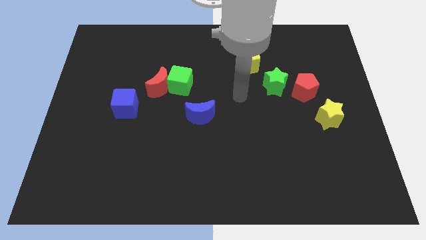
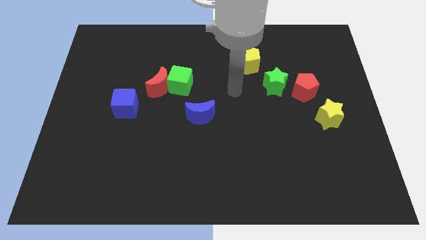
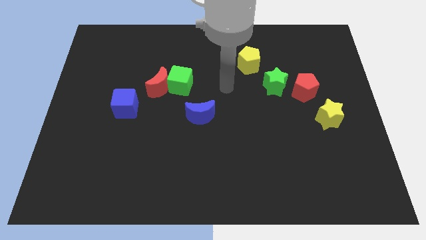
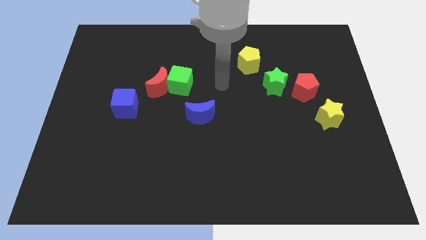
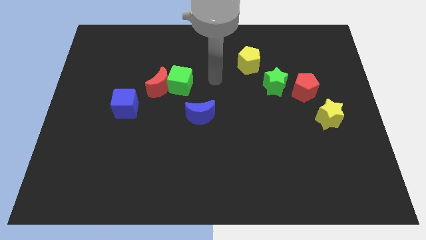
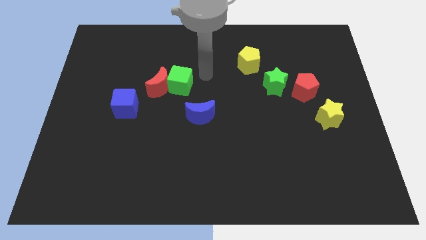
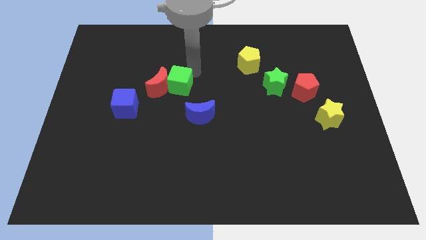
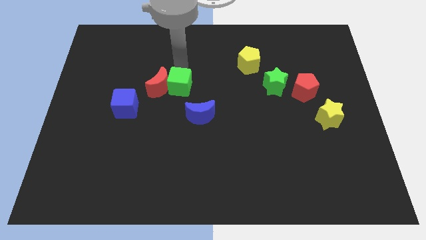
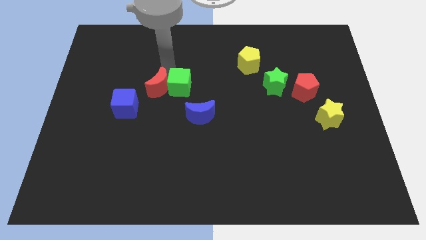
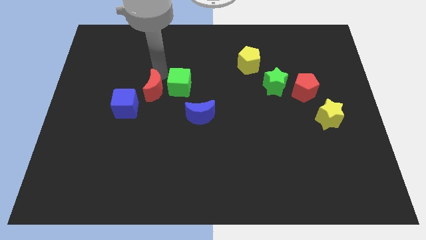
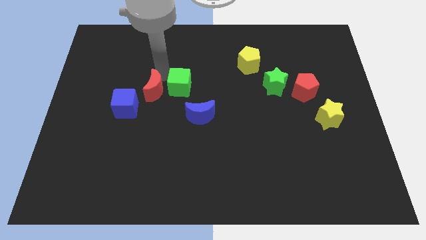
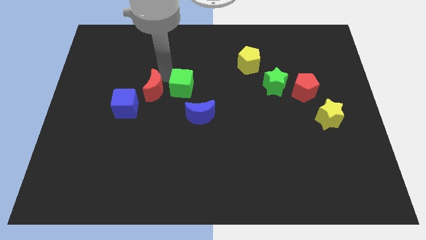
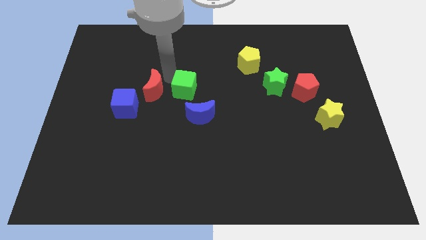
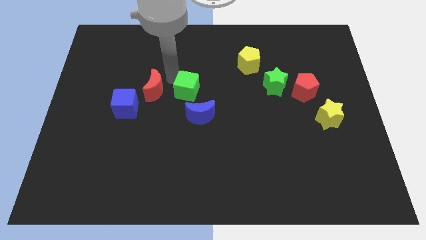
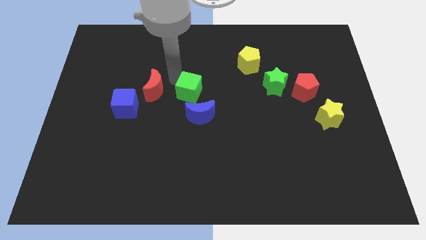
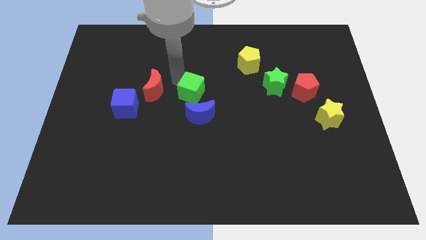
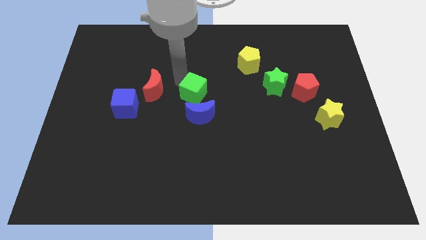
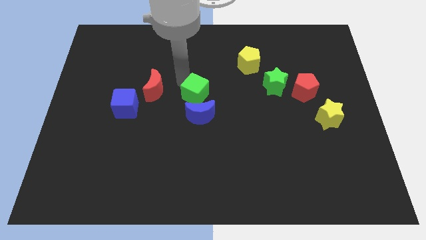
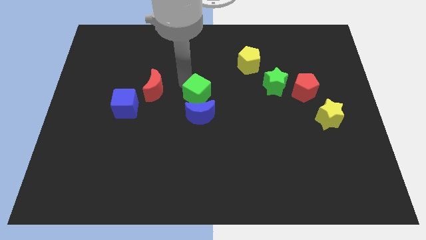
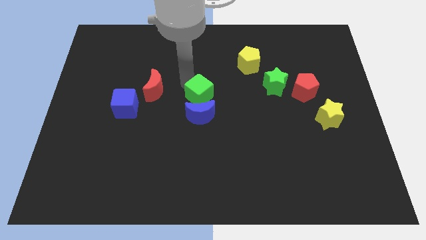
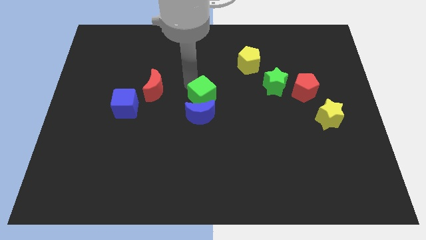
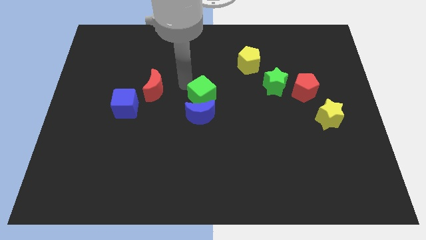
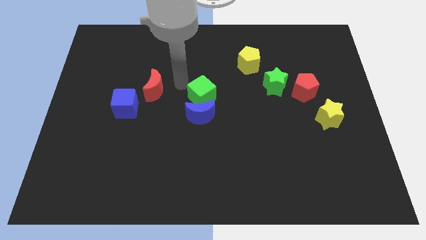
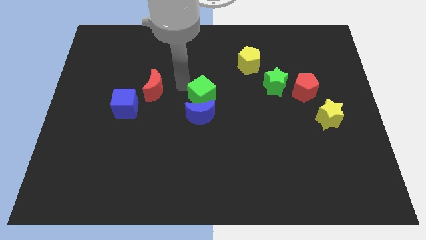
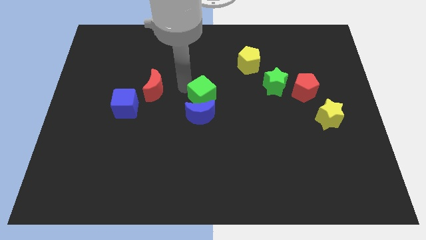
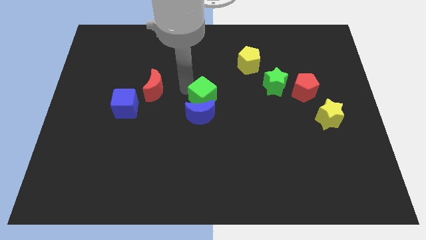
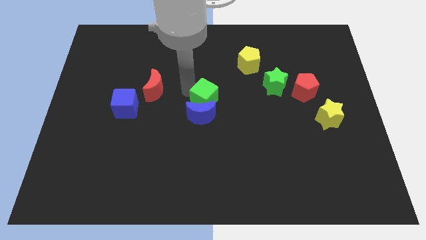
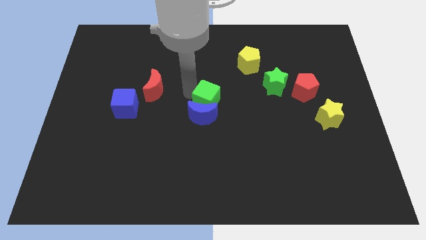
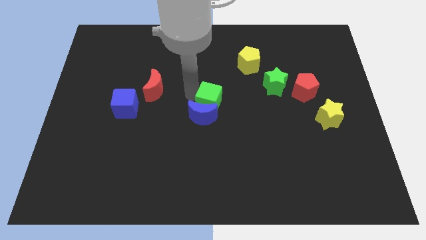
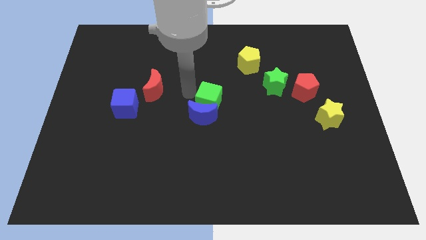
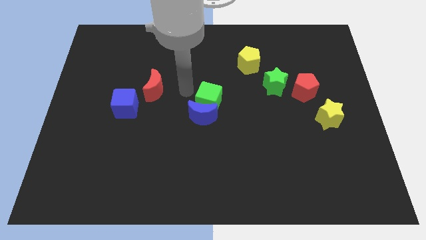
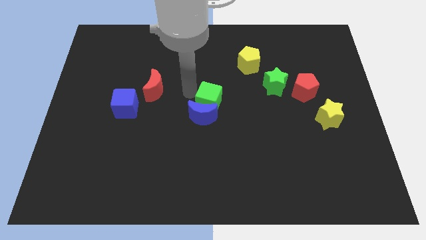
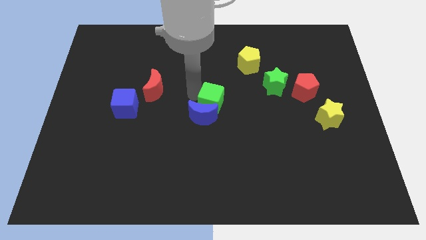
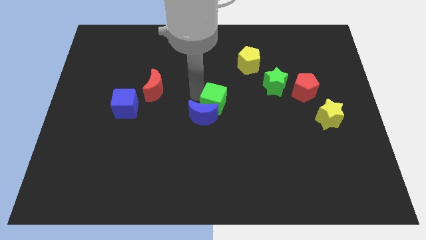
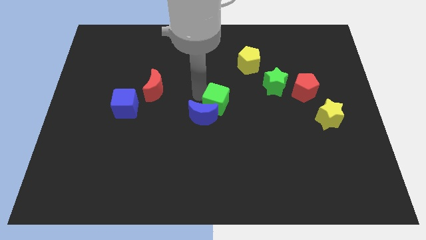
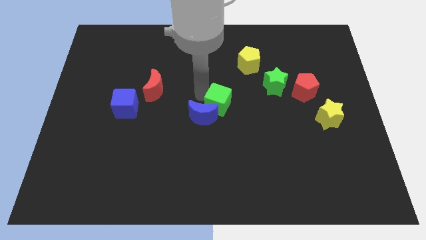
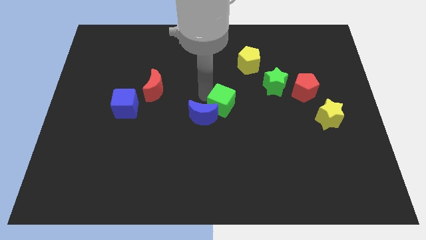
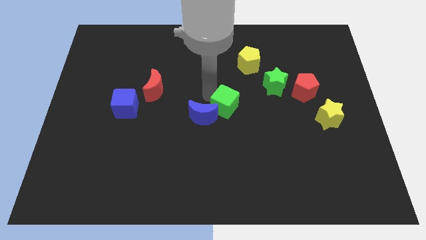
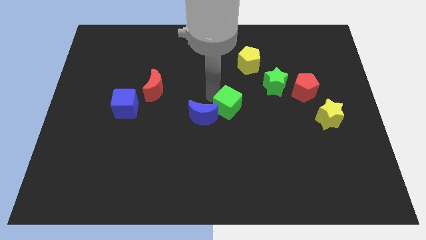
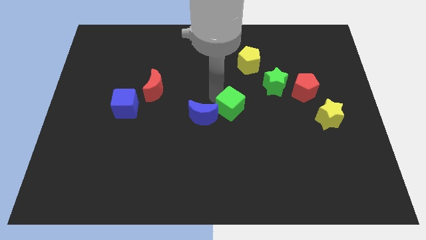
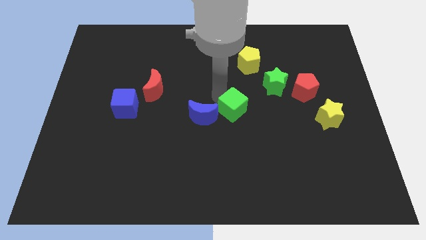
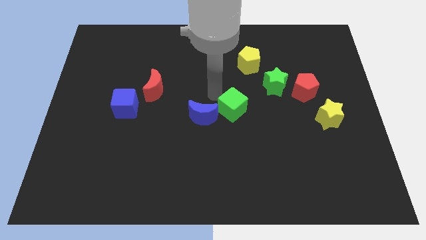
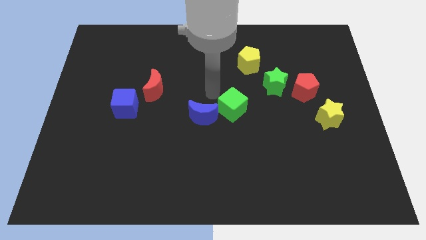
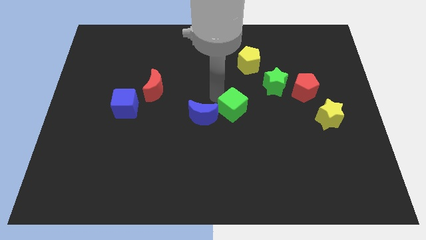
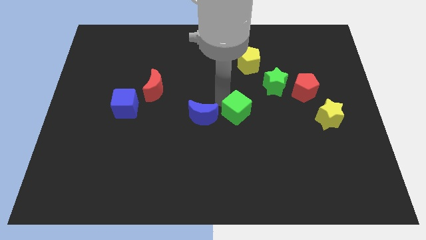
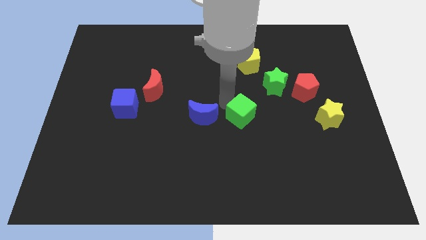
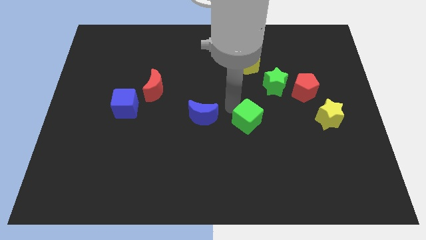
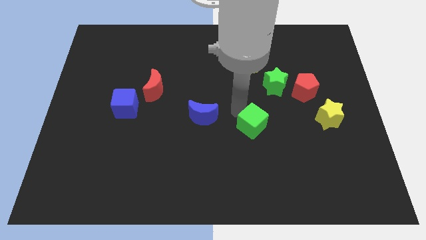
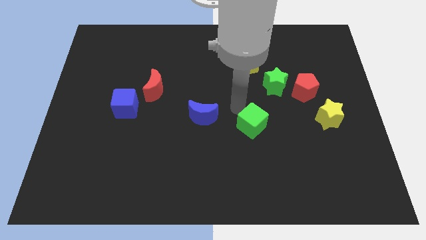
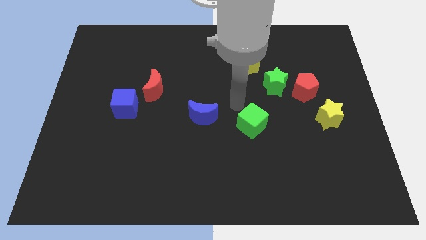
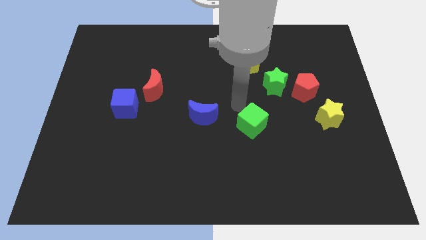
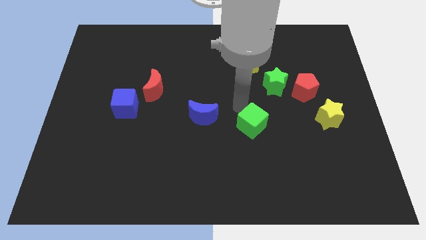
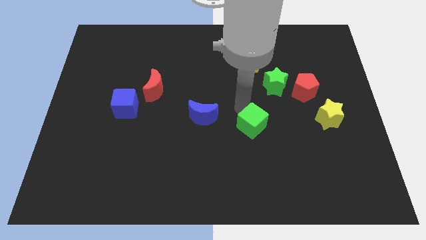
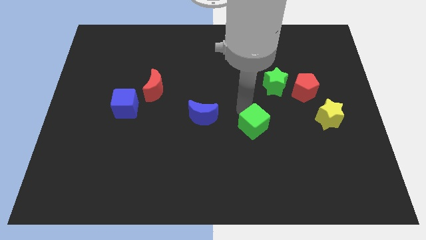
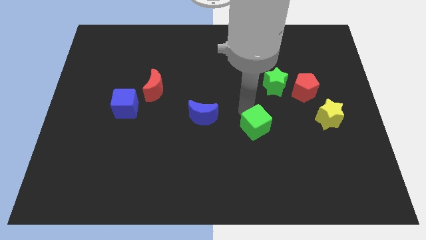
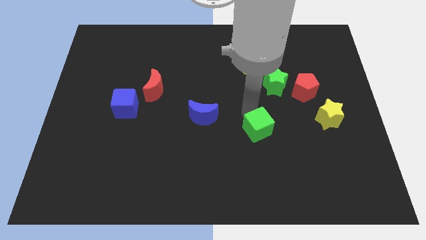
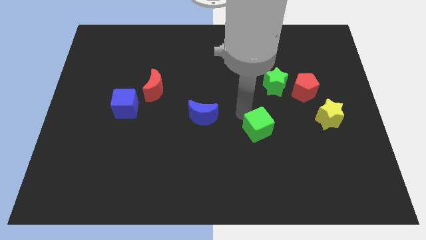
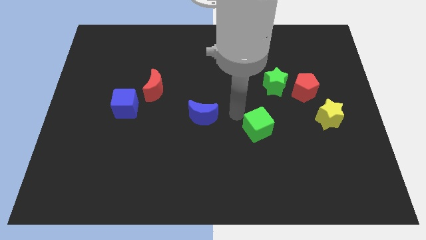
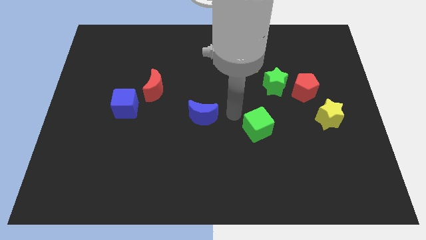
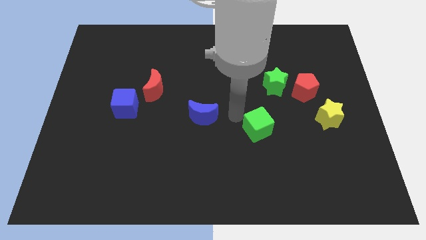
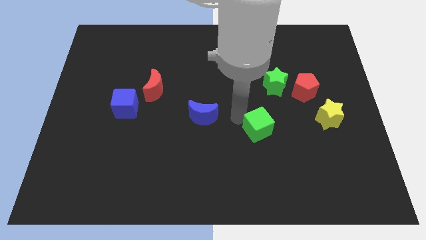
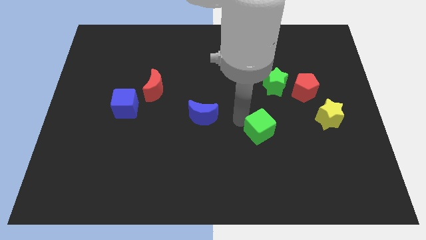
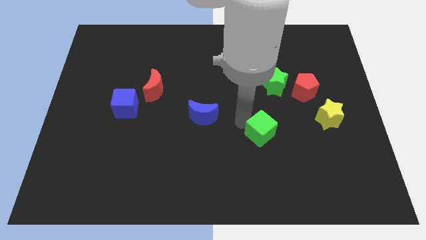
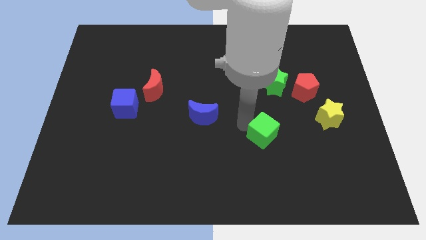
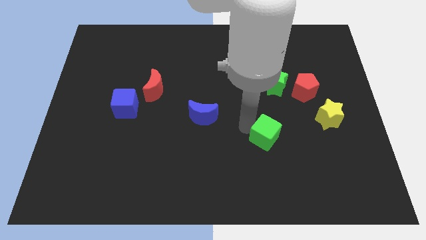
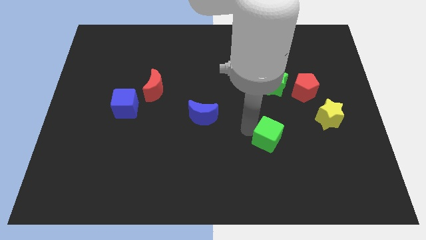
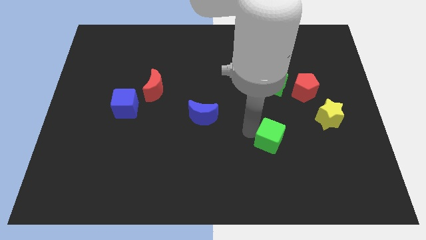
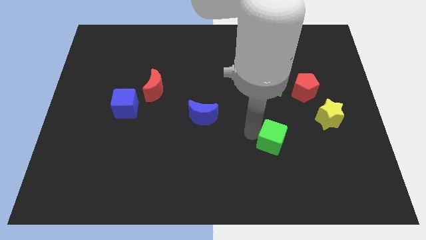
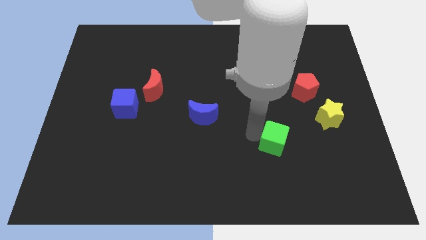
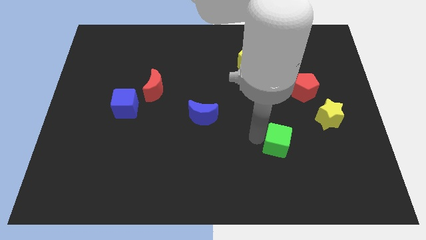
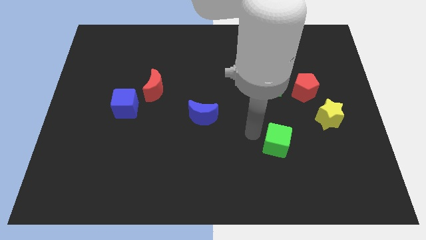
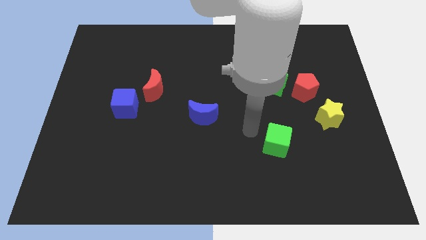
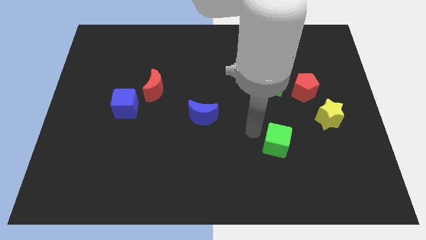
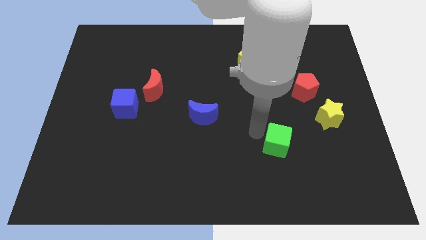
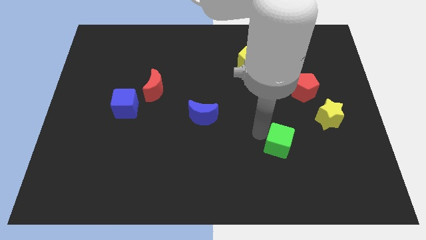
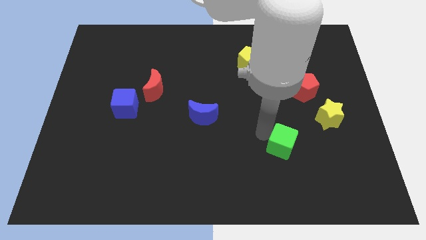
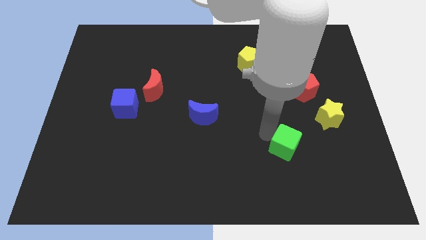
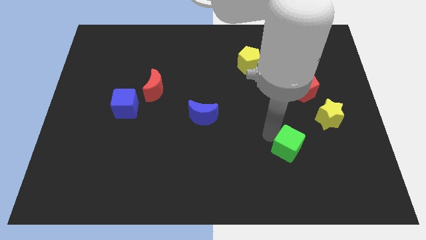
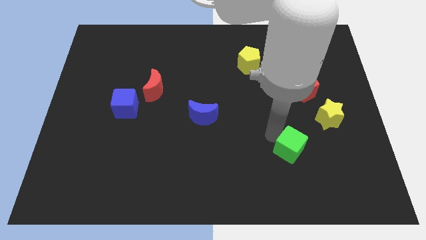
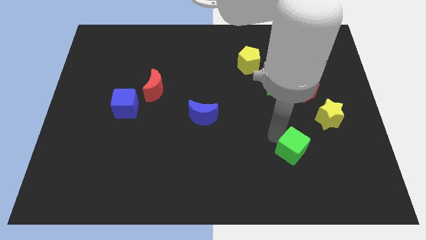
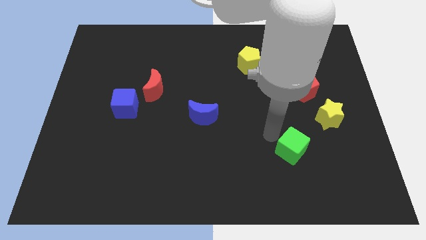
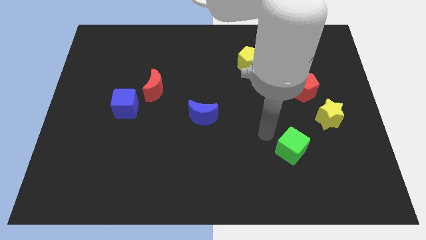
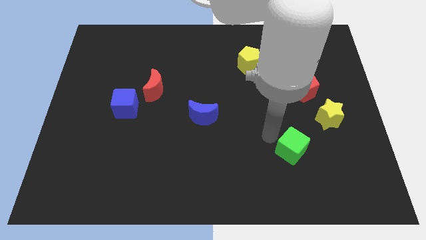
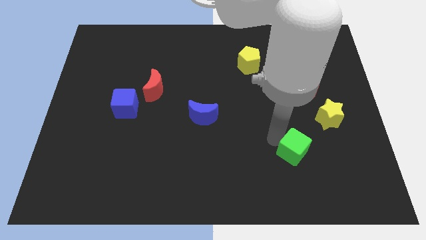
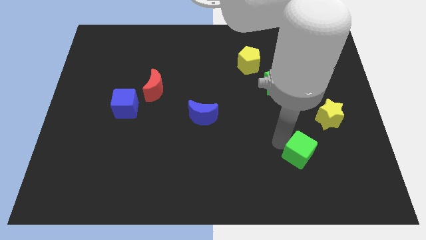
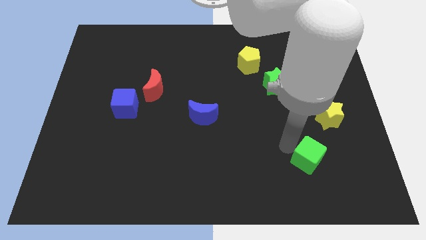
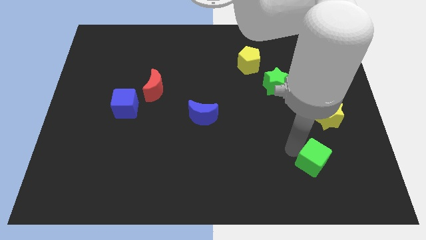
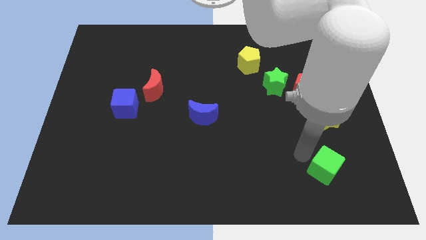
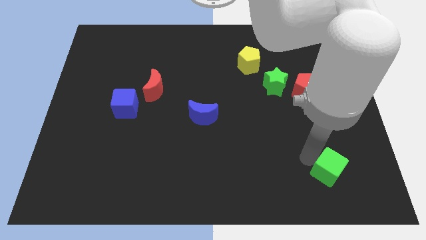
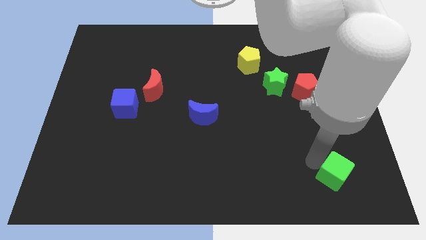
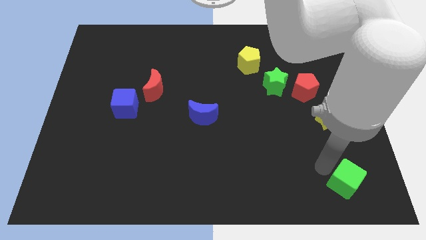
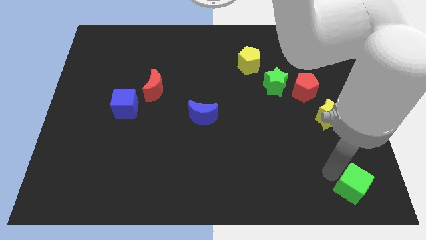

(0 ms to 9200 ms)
push the green cube to the bottom right
